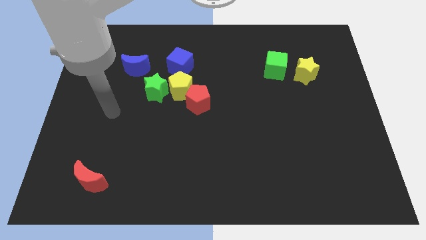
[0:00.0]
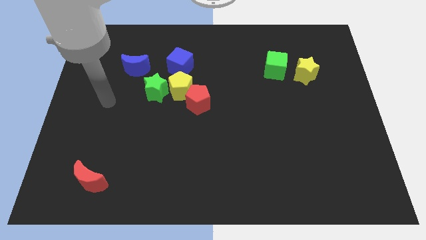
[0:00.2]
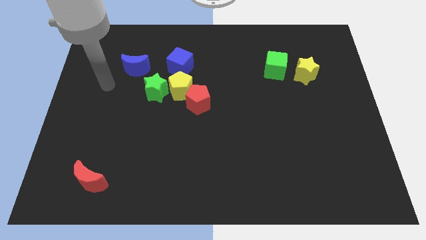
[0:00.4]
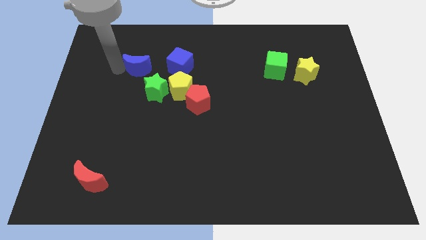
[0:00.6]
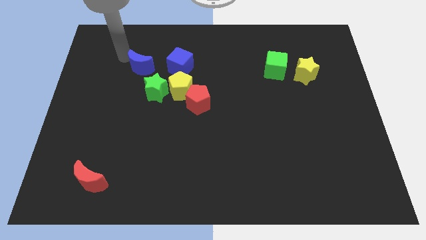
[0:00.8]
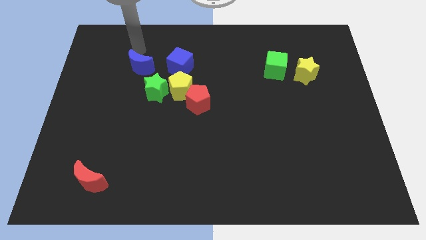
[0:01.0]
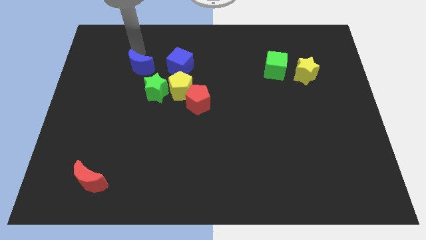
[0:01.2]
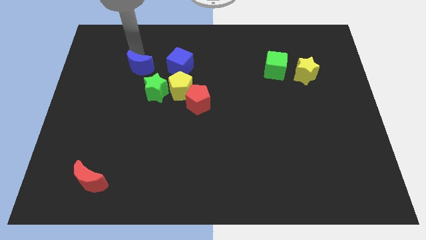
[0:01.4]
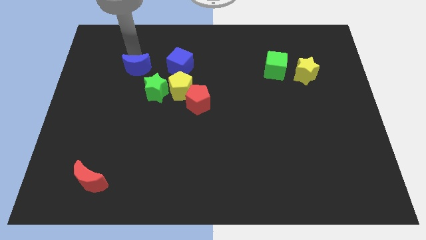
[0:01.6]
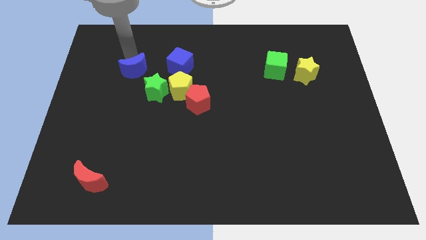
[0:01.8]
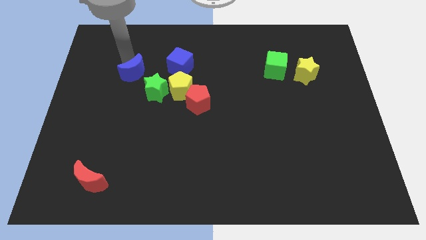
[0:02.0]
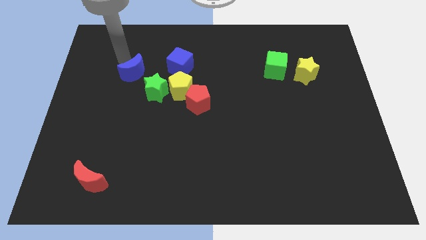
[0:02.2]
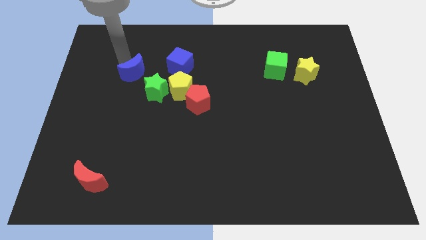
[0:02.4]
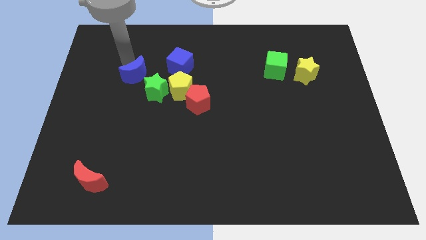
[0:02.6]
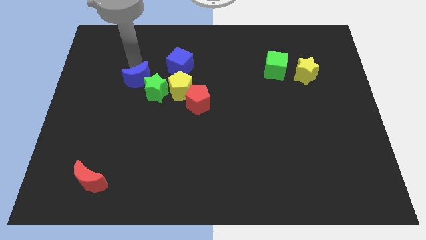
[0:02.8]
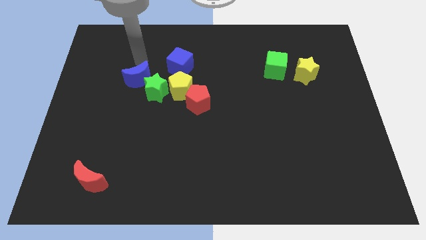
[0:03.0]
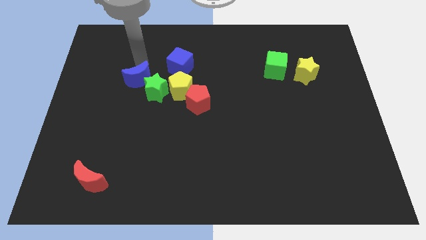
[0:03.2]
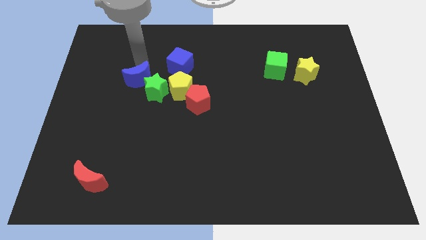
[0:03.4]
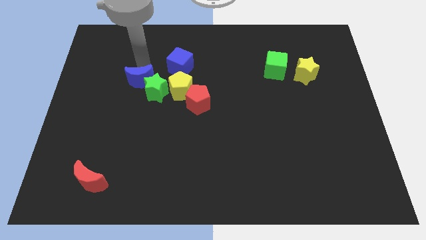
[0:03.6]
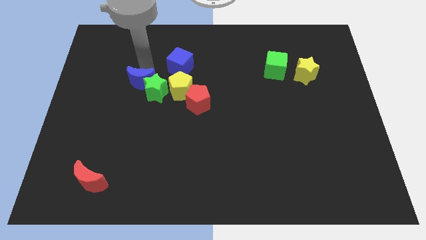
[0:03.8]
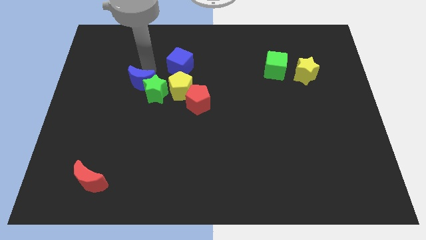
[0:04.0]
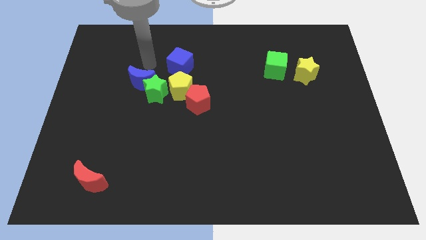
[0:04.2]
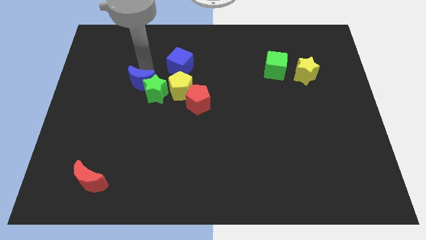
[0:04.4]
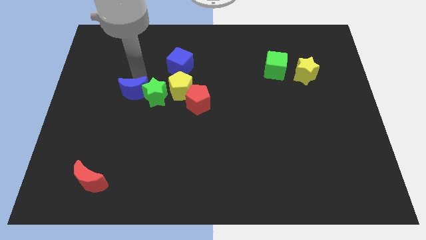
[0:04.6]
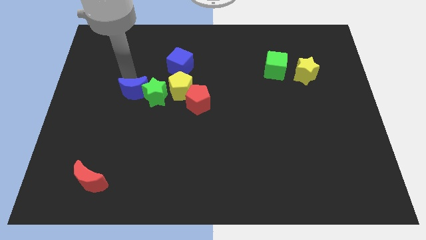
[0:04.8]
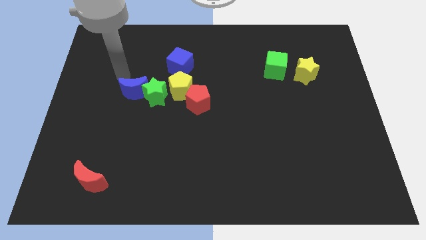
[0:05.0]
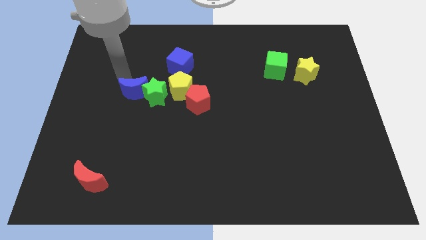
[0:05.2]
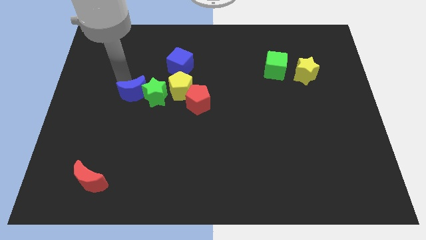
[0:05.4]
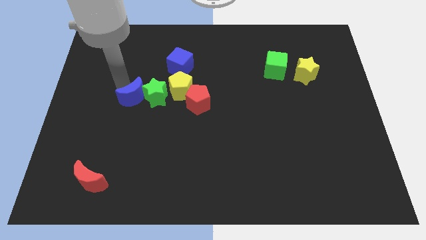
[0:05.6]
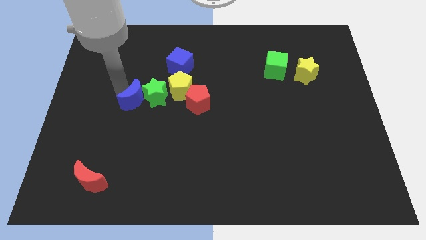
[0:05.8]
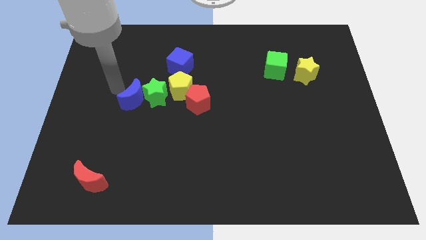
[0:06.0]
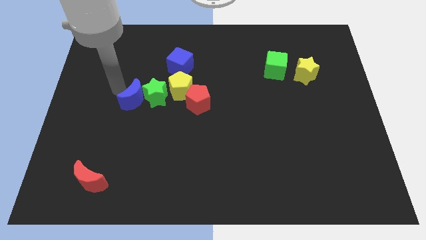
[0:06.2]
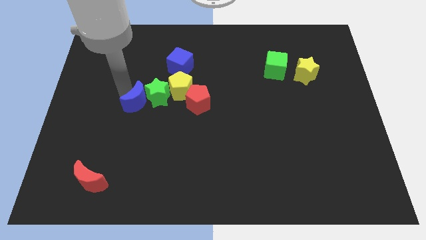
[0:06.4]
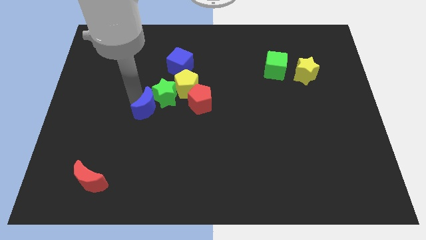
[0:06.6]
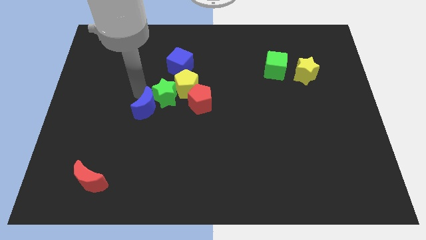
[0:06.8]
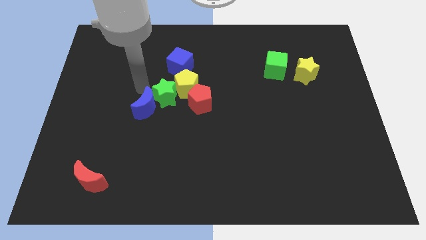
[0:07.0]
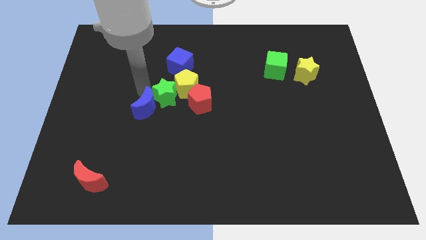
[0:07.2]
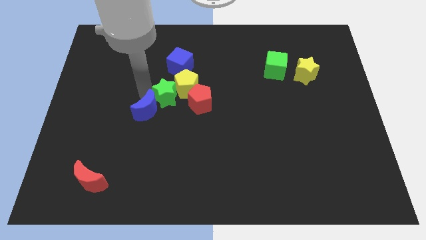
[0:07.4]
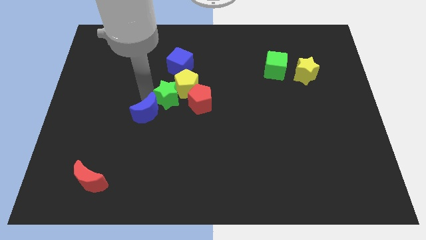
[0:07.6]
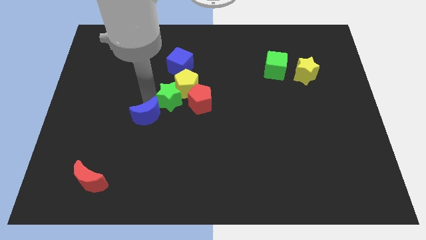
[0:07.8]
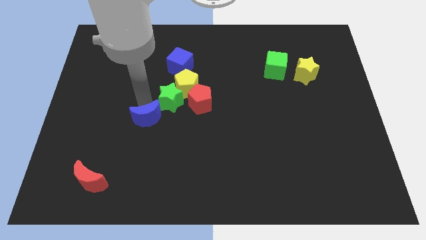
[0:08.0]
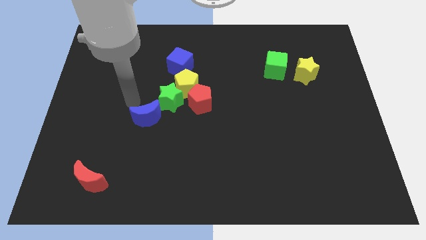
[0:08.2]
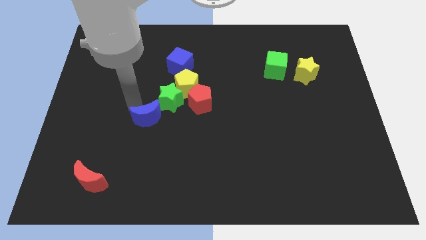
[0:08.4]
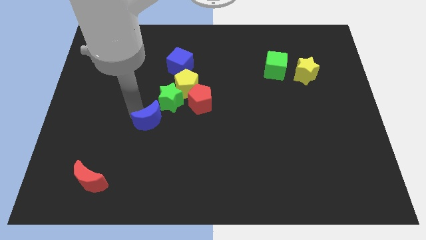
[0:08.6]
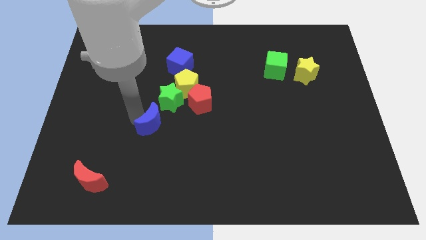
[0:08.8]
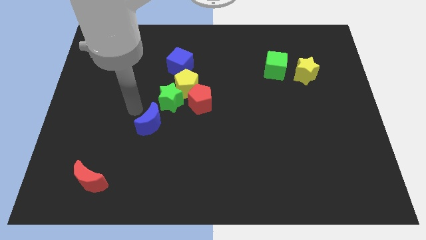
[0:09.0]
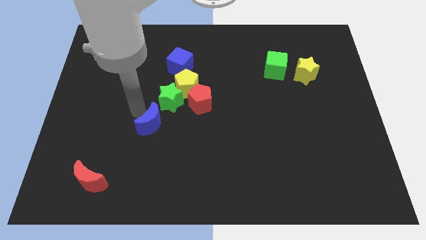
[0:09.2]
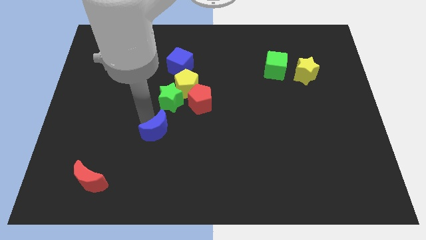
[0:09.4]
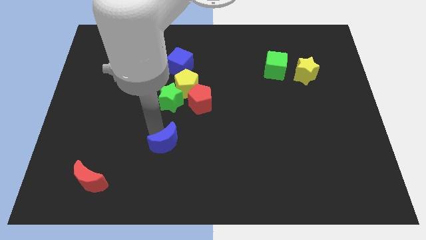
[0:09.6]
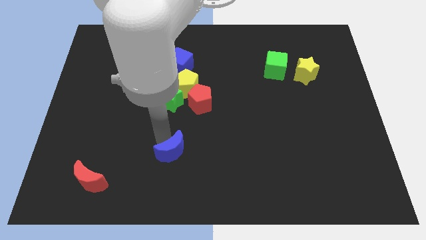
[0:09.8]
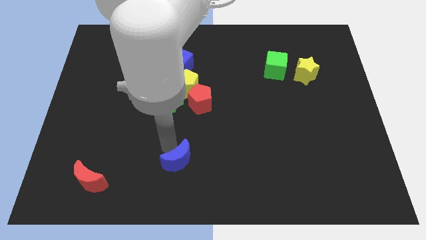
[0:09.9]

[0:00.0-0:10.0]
push the blue moon to the bottom
